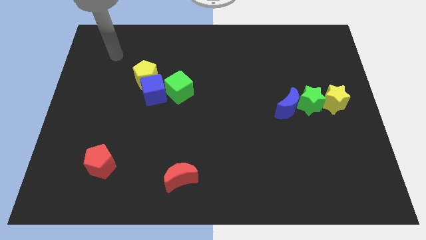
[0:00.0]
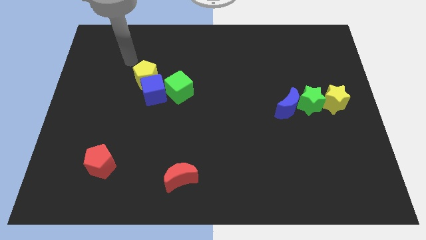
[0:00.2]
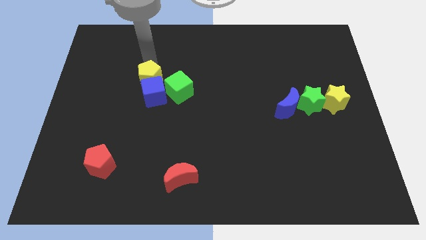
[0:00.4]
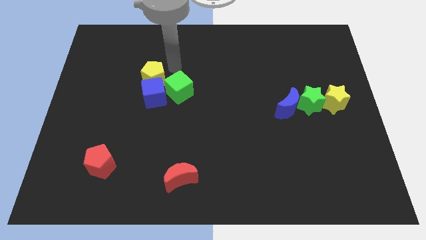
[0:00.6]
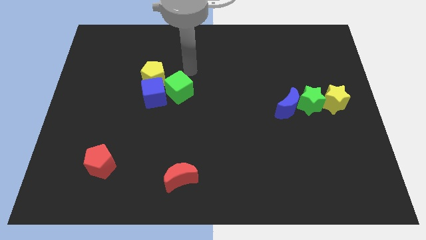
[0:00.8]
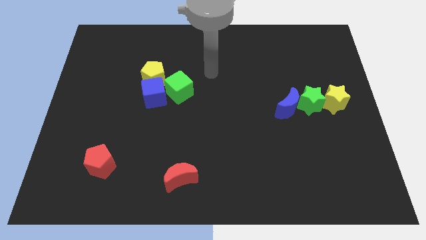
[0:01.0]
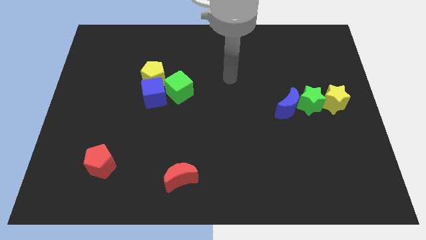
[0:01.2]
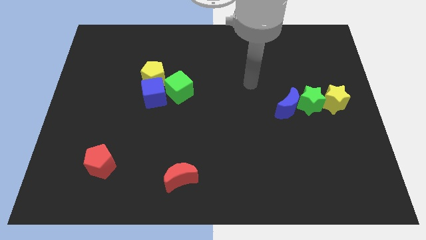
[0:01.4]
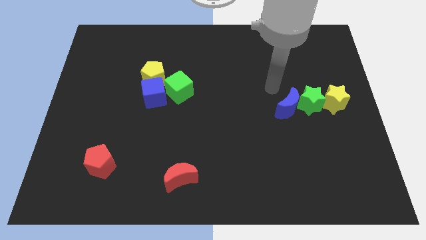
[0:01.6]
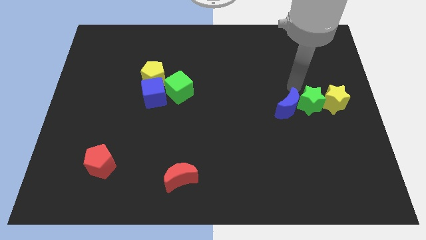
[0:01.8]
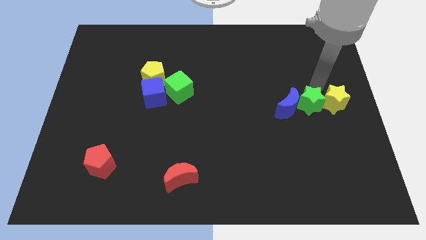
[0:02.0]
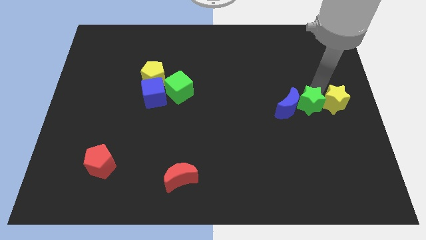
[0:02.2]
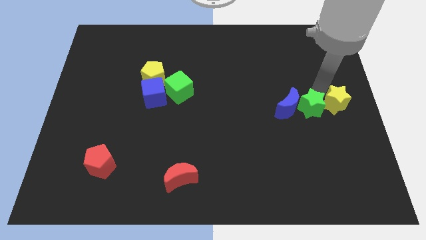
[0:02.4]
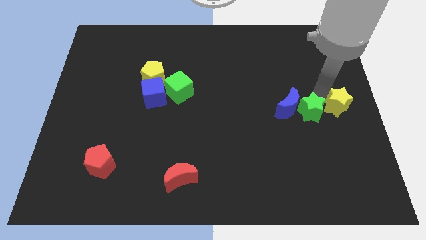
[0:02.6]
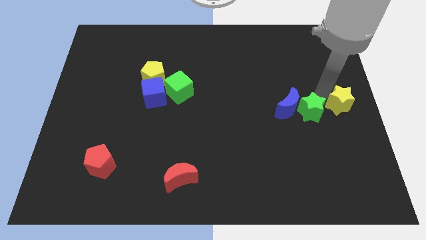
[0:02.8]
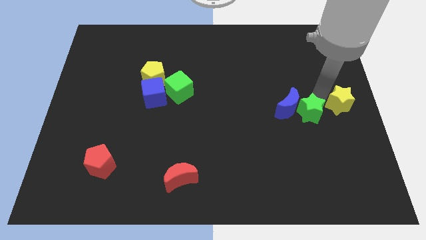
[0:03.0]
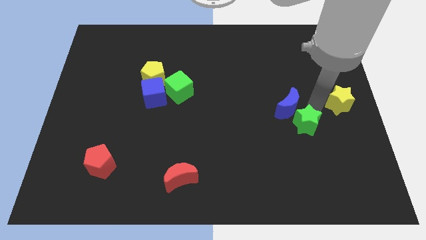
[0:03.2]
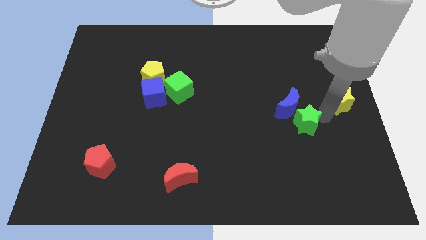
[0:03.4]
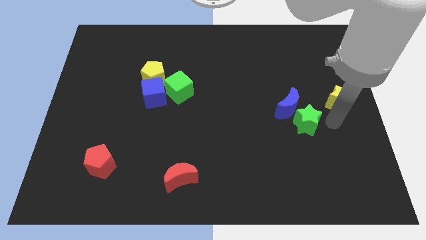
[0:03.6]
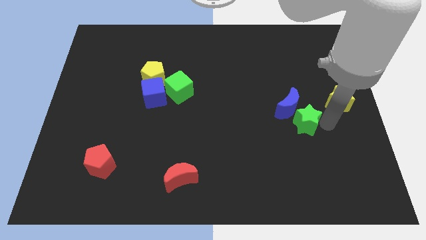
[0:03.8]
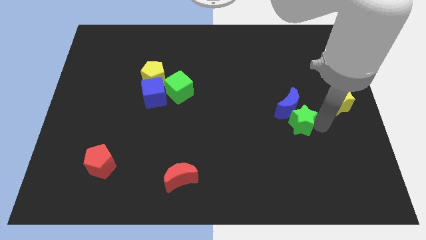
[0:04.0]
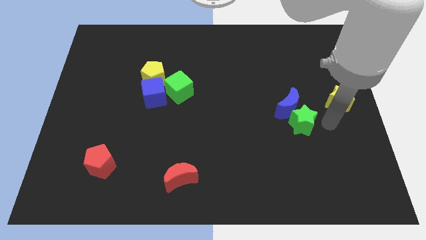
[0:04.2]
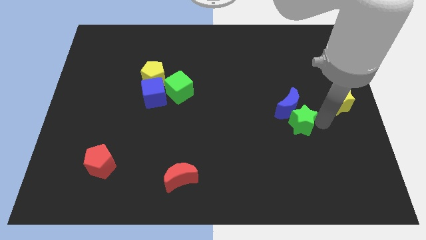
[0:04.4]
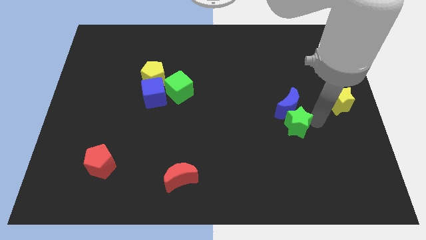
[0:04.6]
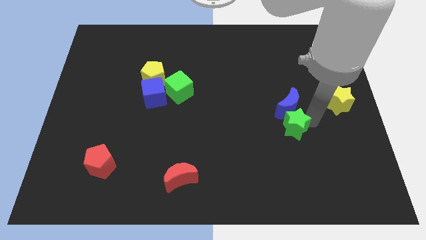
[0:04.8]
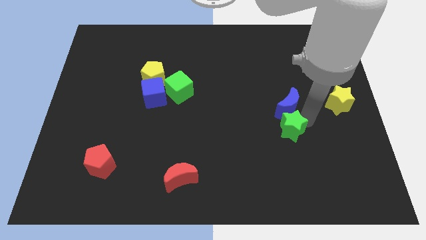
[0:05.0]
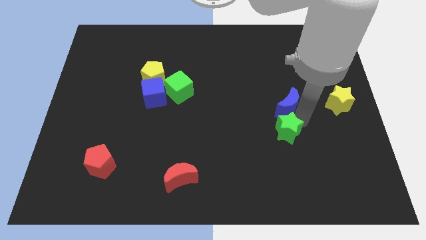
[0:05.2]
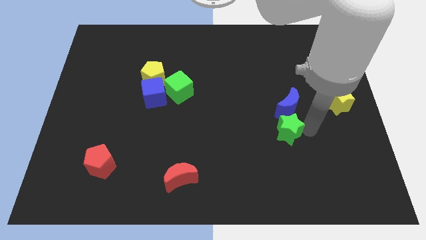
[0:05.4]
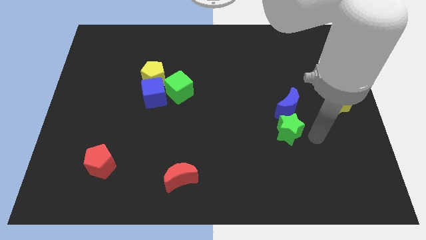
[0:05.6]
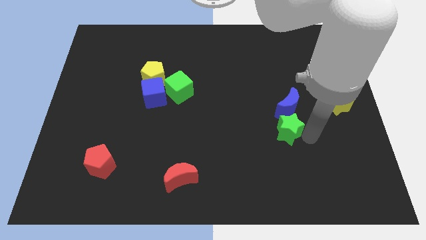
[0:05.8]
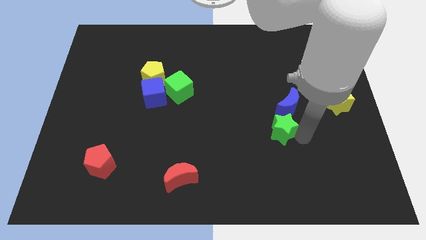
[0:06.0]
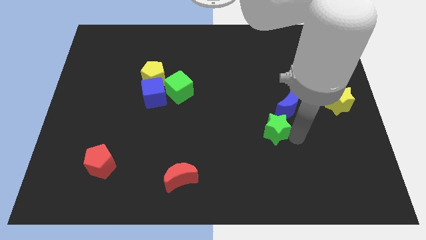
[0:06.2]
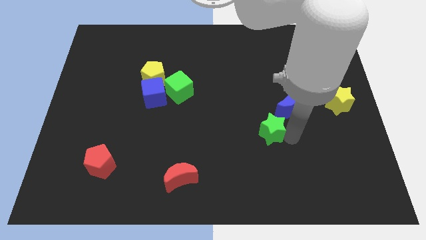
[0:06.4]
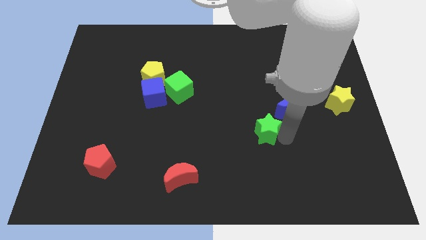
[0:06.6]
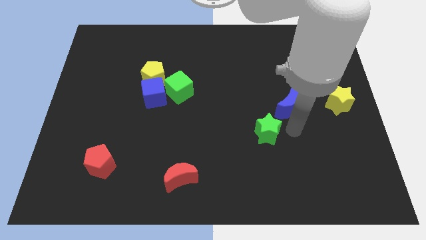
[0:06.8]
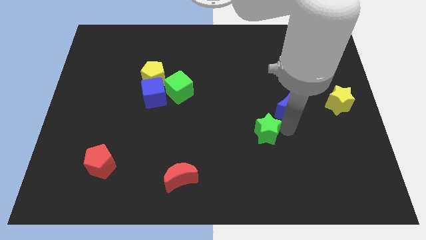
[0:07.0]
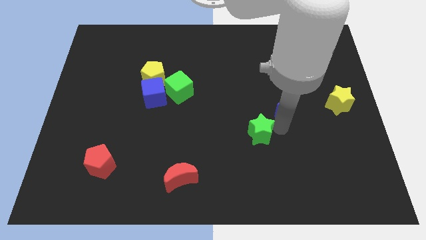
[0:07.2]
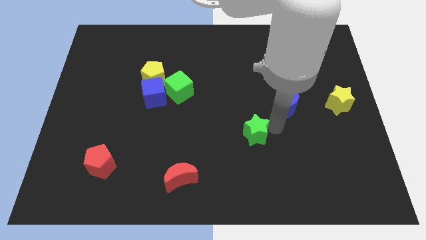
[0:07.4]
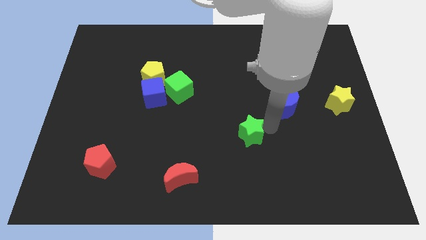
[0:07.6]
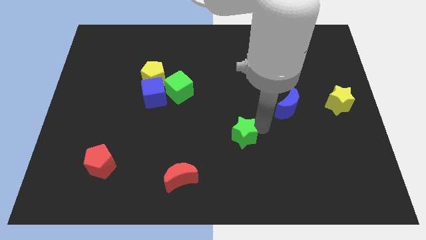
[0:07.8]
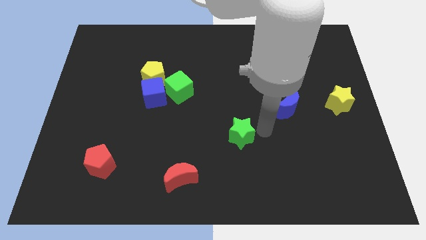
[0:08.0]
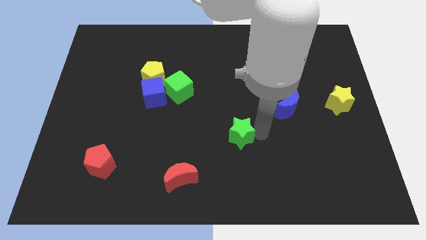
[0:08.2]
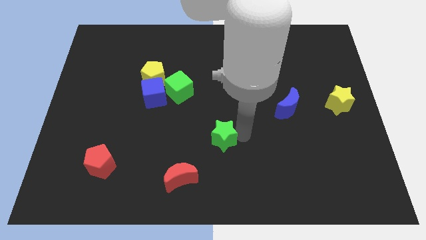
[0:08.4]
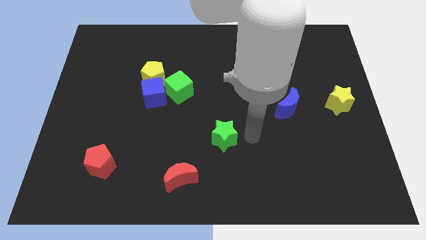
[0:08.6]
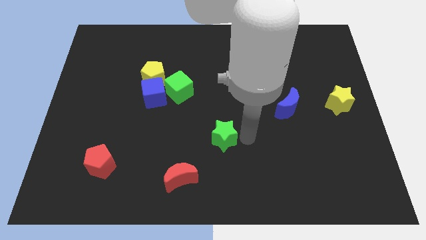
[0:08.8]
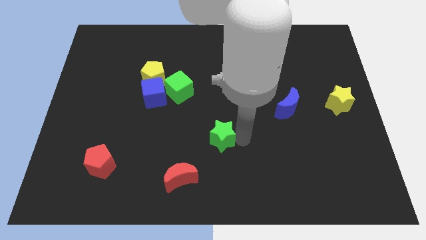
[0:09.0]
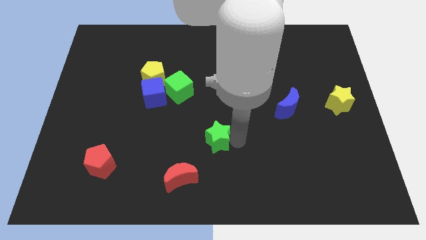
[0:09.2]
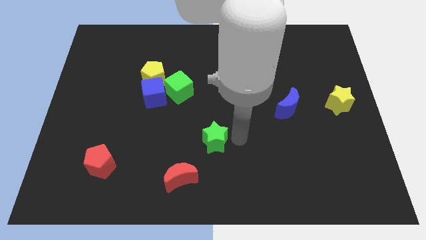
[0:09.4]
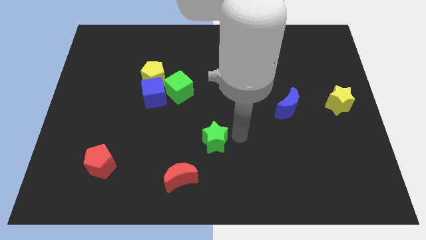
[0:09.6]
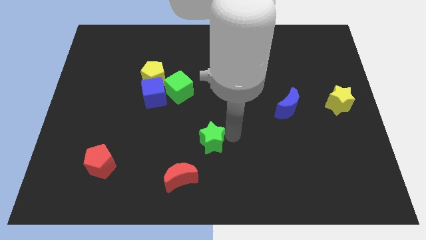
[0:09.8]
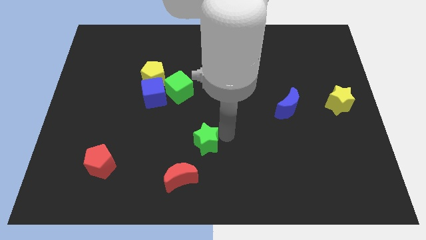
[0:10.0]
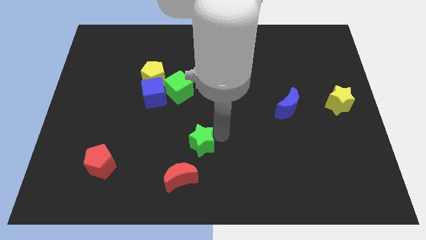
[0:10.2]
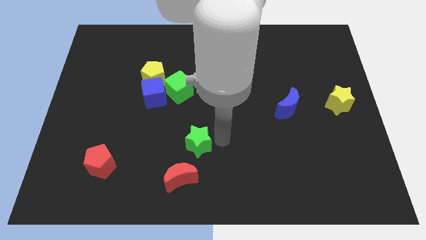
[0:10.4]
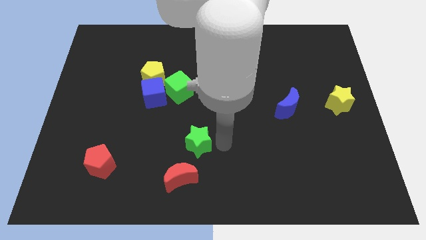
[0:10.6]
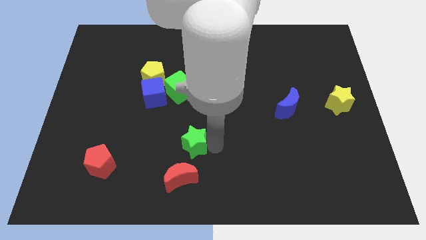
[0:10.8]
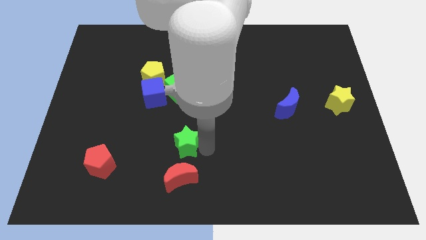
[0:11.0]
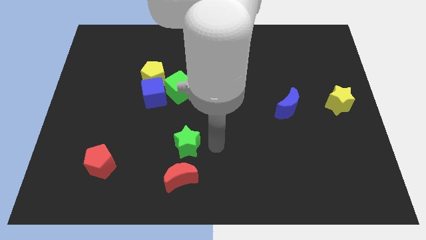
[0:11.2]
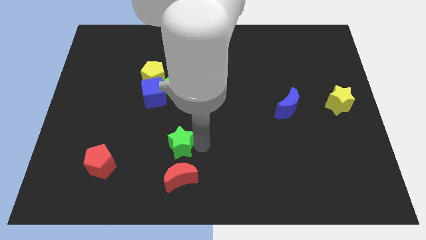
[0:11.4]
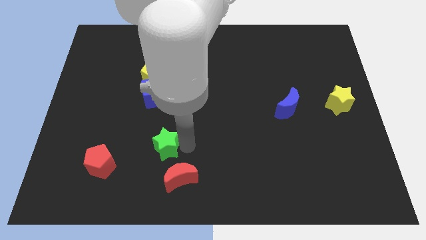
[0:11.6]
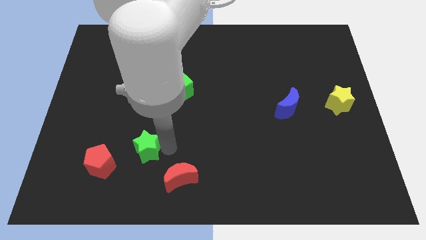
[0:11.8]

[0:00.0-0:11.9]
move the green star to the top right of the red pentagon

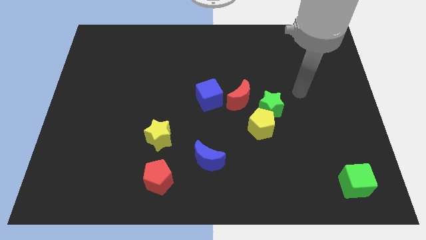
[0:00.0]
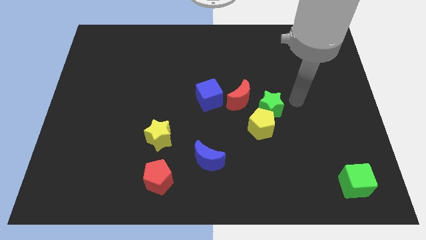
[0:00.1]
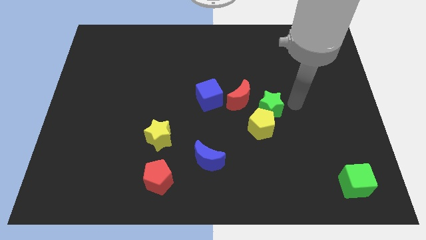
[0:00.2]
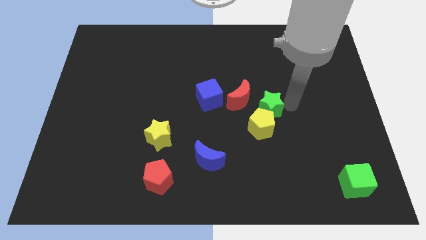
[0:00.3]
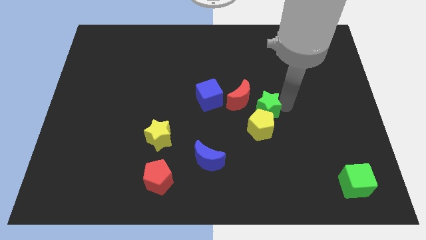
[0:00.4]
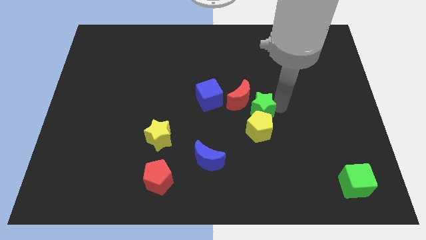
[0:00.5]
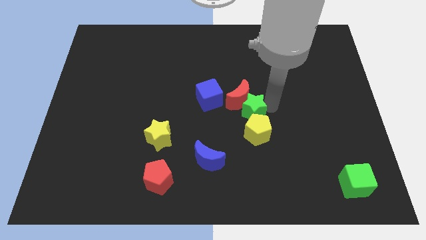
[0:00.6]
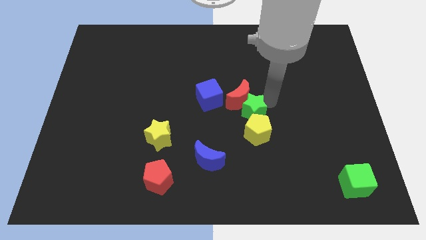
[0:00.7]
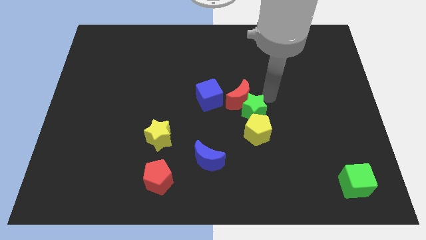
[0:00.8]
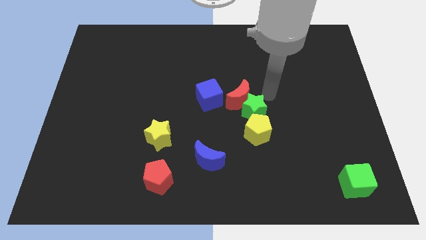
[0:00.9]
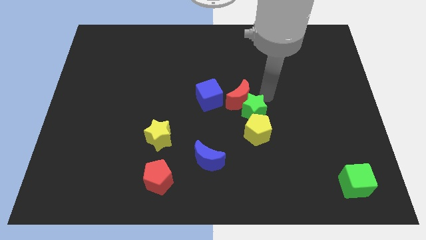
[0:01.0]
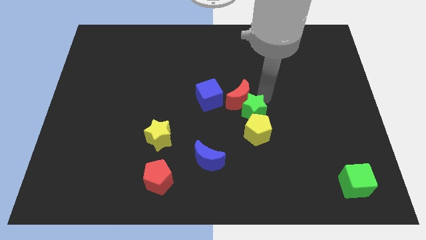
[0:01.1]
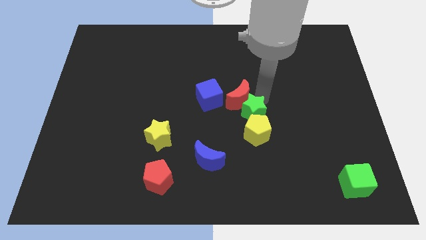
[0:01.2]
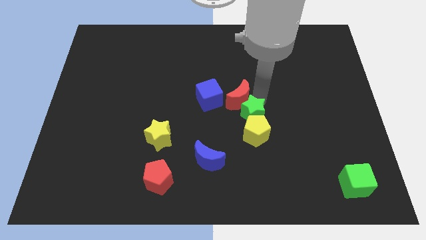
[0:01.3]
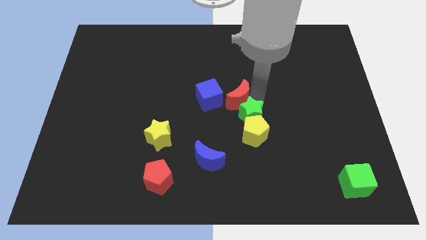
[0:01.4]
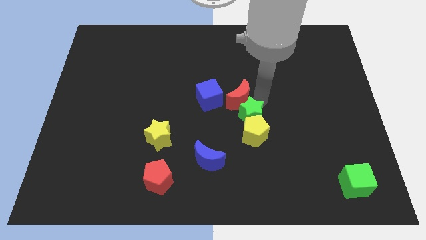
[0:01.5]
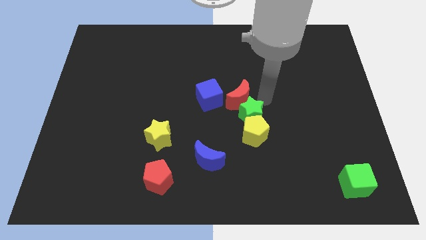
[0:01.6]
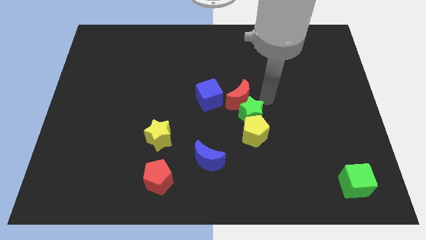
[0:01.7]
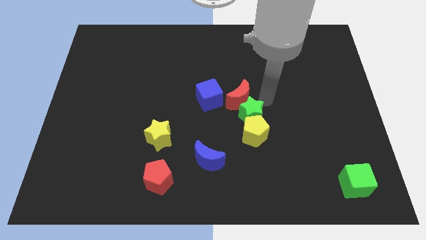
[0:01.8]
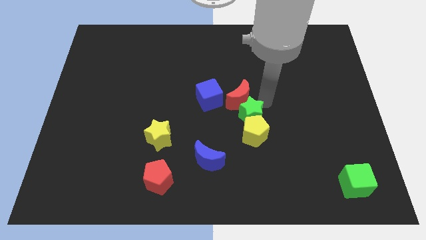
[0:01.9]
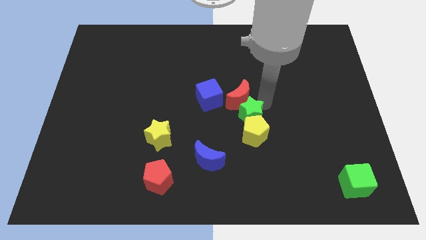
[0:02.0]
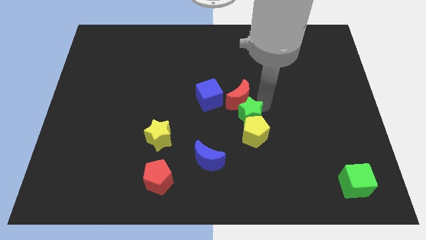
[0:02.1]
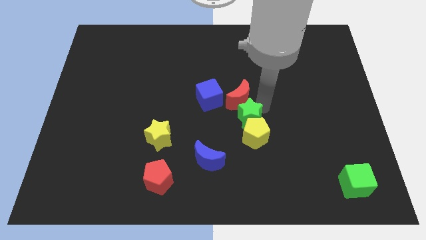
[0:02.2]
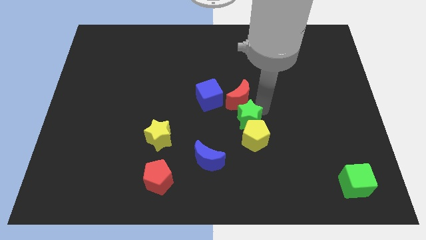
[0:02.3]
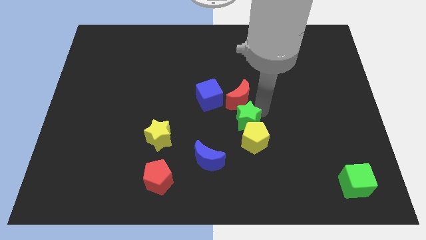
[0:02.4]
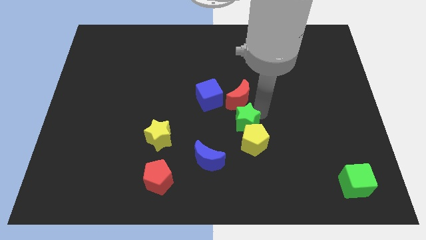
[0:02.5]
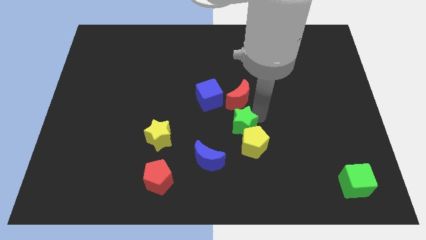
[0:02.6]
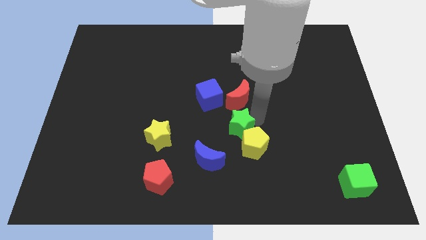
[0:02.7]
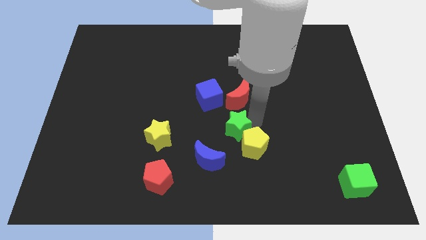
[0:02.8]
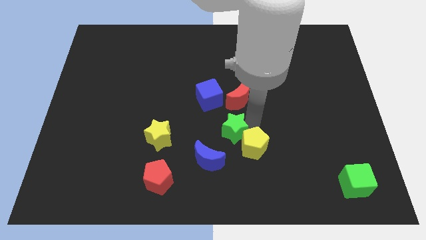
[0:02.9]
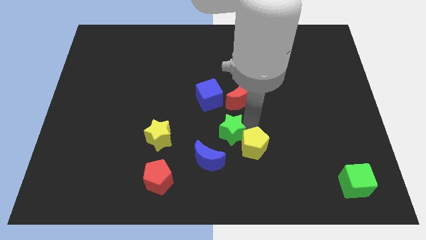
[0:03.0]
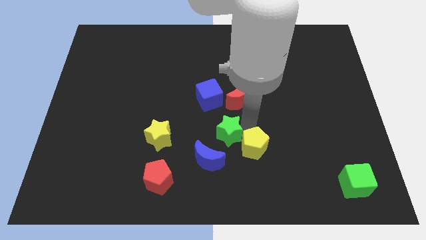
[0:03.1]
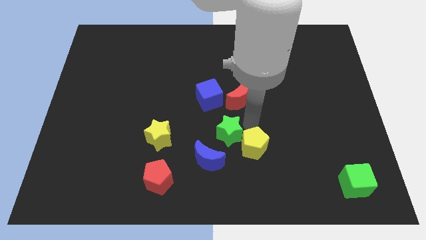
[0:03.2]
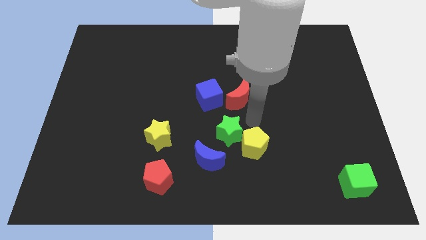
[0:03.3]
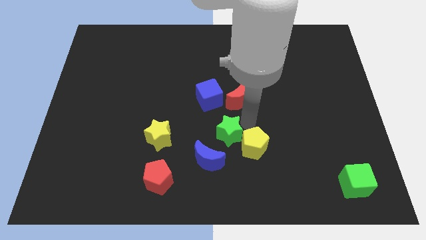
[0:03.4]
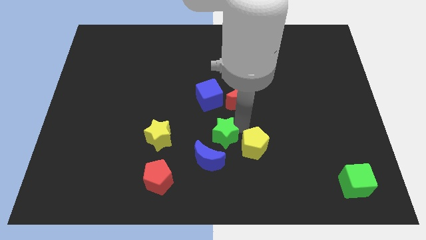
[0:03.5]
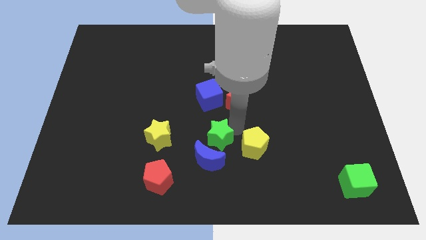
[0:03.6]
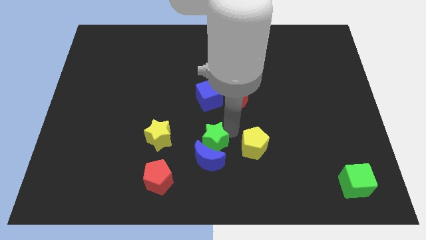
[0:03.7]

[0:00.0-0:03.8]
move the green star to the top left of the blue moon
